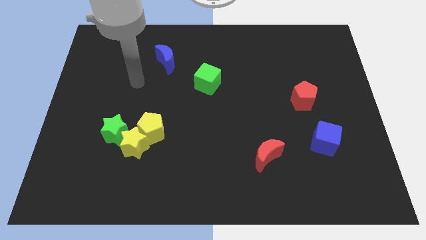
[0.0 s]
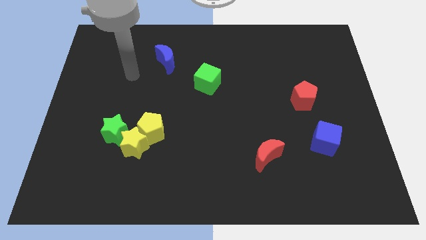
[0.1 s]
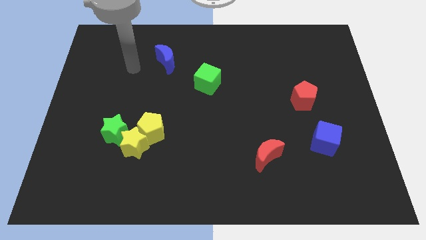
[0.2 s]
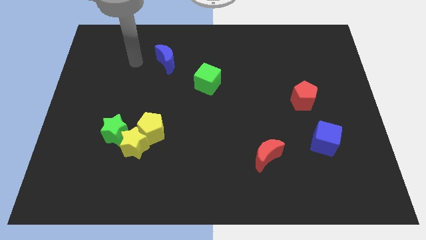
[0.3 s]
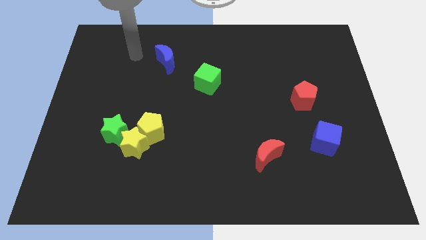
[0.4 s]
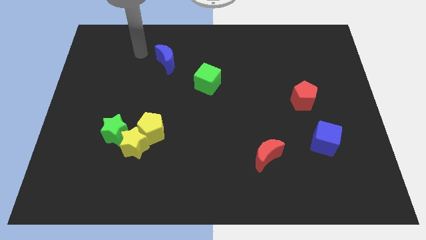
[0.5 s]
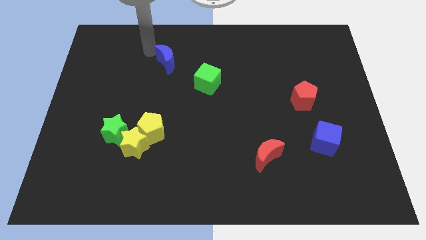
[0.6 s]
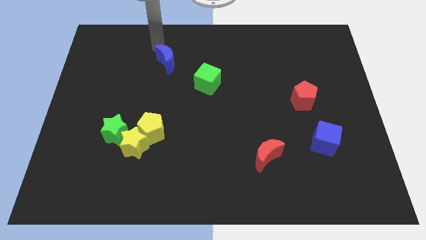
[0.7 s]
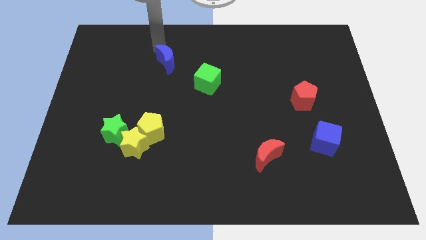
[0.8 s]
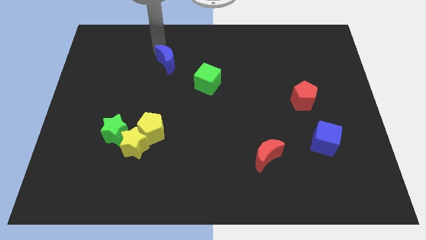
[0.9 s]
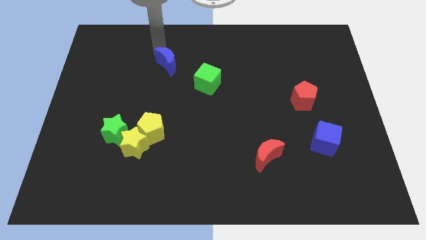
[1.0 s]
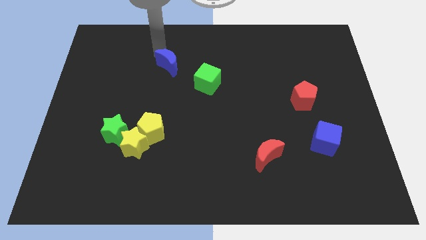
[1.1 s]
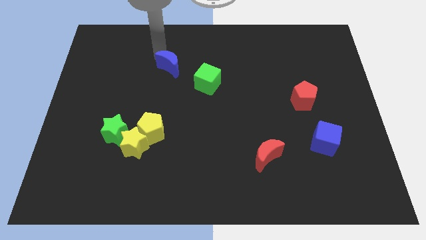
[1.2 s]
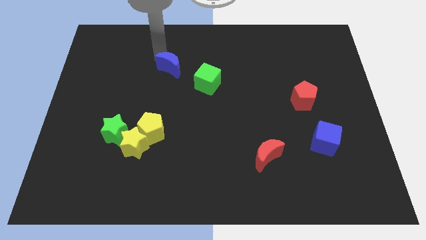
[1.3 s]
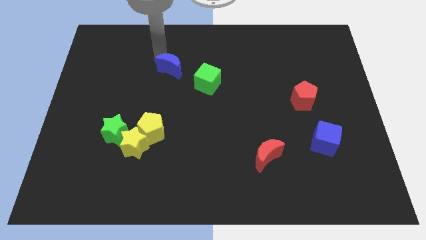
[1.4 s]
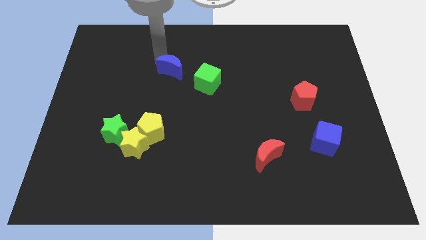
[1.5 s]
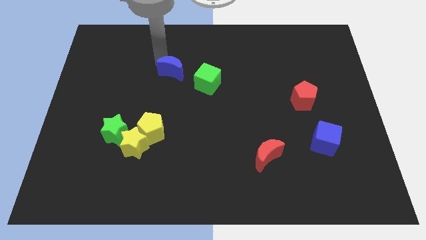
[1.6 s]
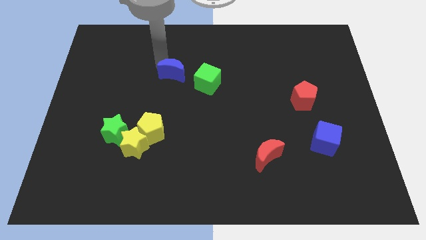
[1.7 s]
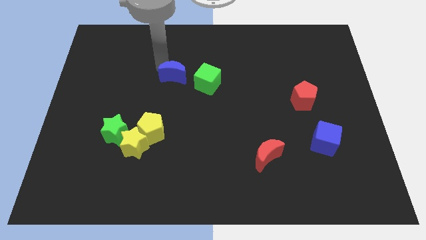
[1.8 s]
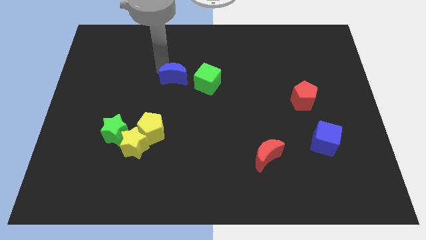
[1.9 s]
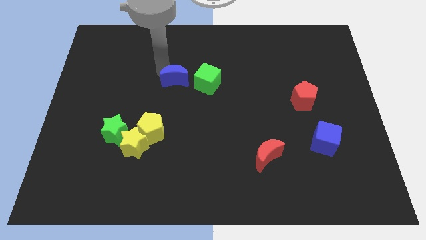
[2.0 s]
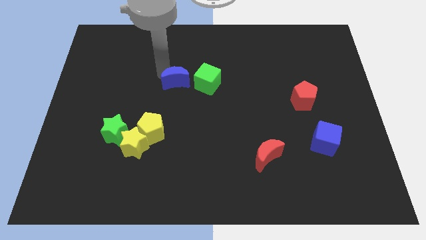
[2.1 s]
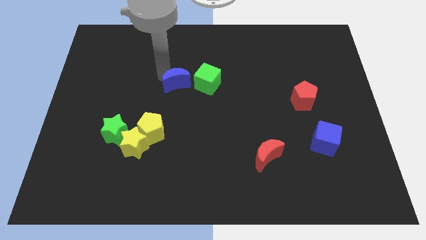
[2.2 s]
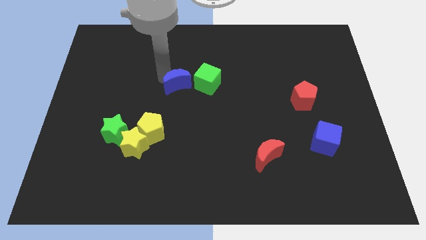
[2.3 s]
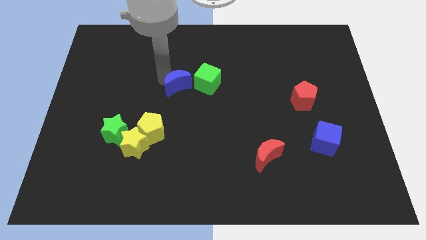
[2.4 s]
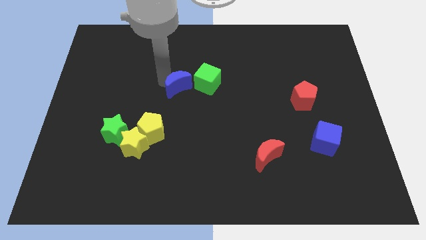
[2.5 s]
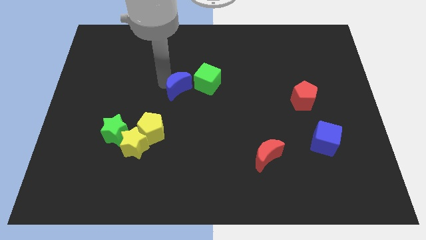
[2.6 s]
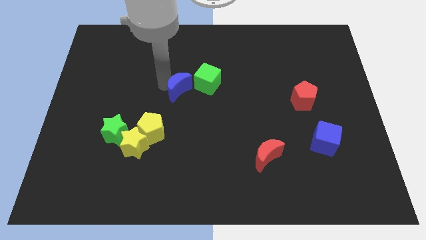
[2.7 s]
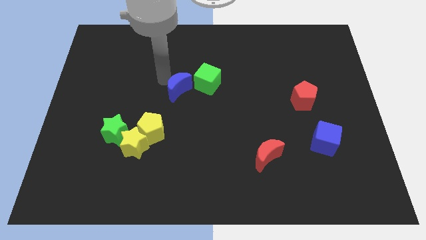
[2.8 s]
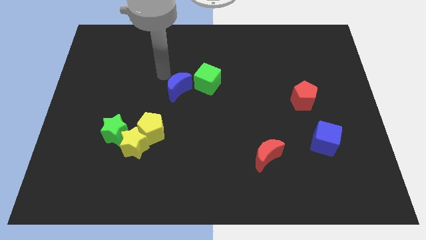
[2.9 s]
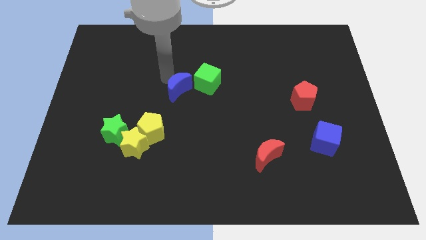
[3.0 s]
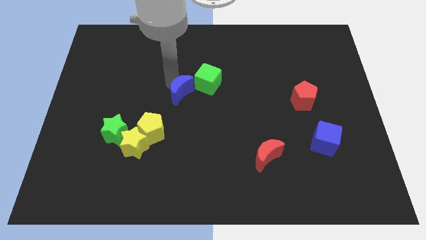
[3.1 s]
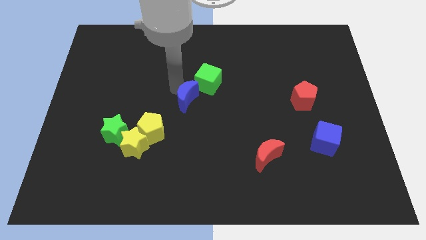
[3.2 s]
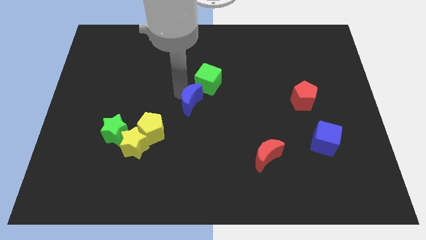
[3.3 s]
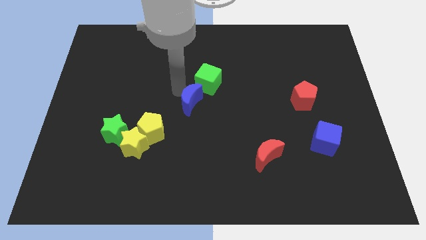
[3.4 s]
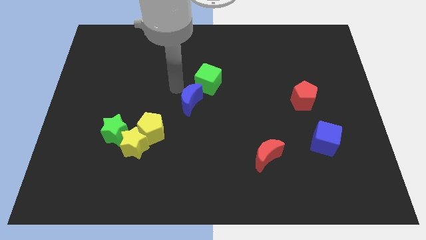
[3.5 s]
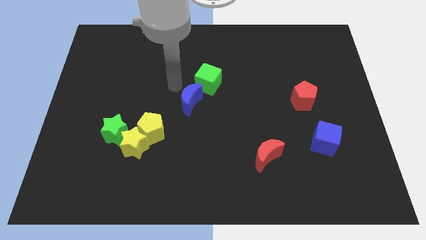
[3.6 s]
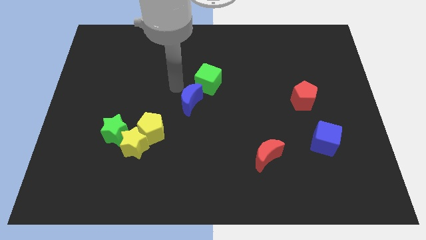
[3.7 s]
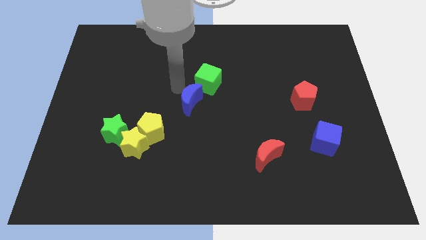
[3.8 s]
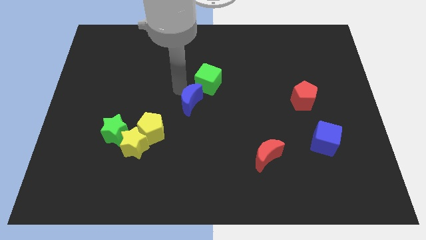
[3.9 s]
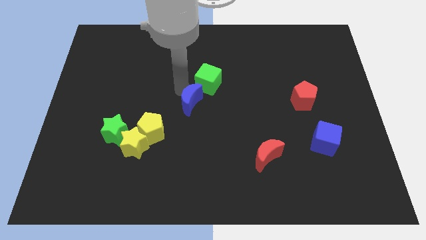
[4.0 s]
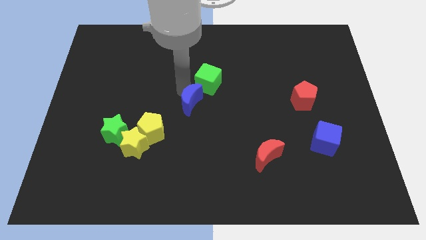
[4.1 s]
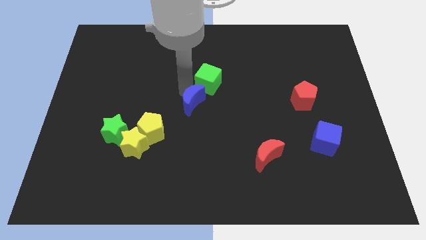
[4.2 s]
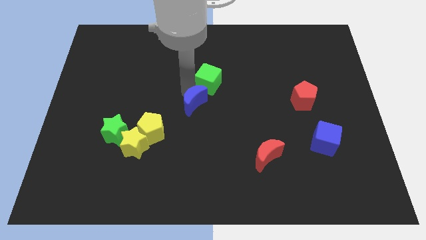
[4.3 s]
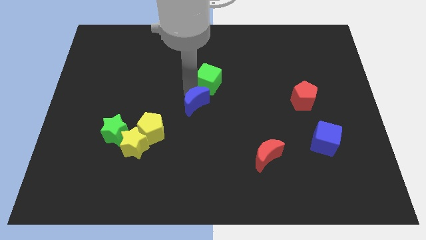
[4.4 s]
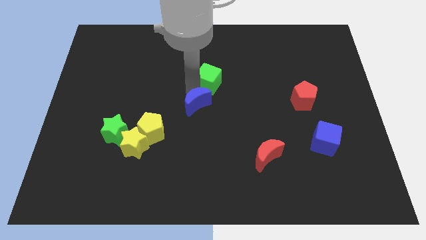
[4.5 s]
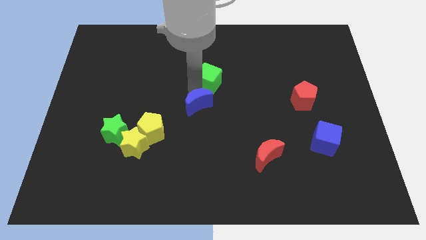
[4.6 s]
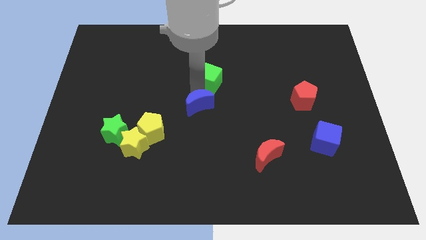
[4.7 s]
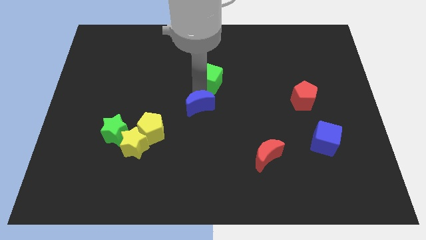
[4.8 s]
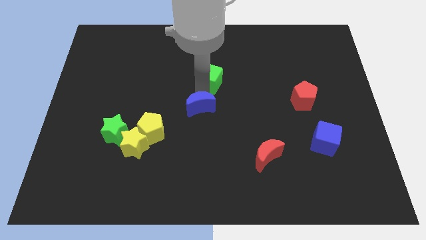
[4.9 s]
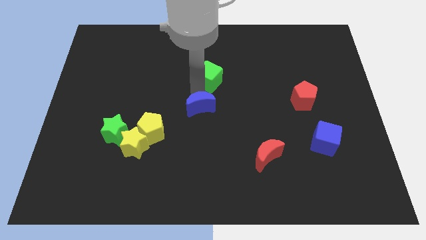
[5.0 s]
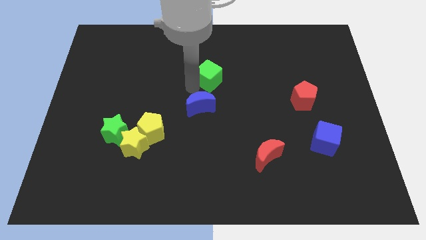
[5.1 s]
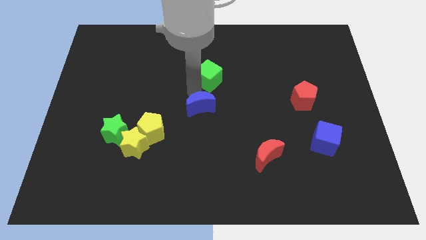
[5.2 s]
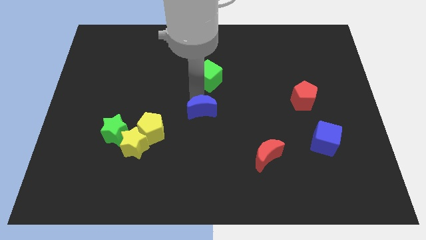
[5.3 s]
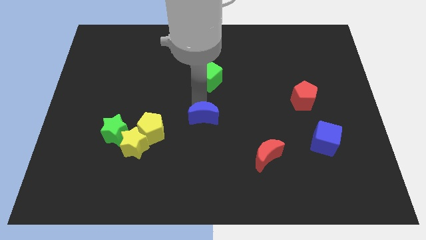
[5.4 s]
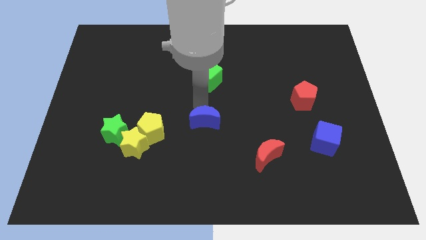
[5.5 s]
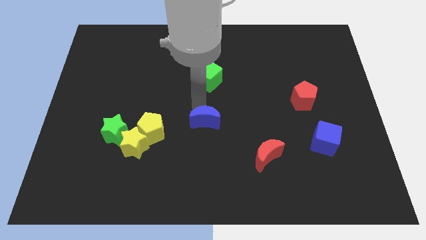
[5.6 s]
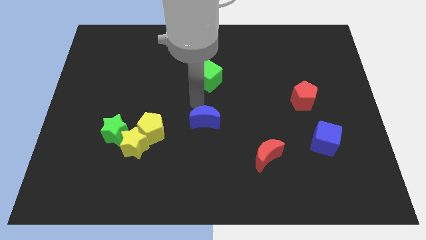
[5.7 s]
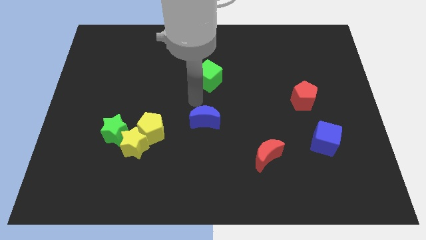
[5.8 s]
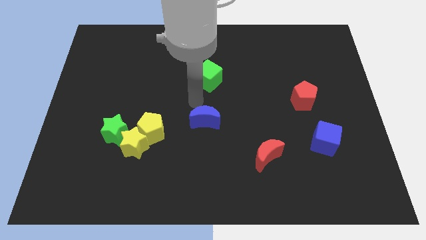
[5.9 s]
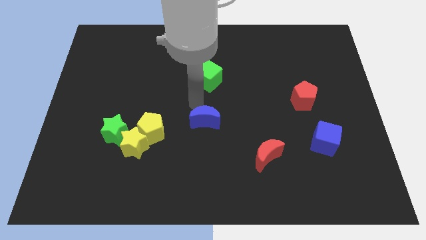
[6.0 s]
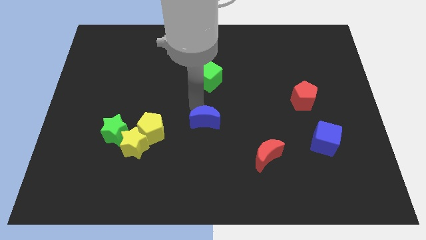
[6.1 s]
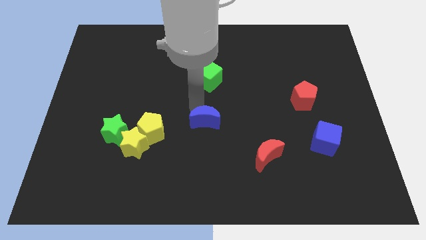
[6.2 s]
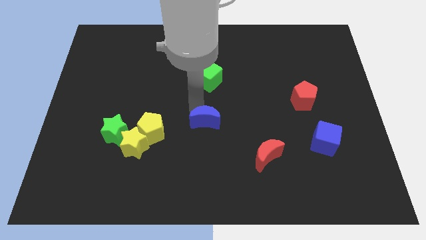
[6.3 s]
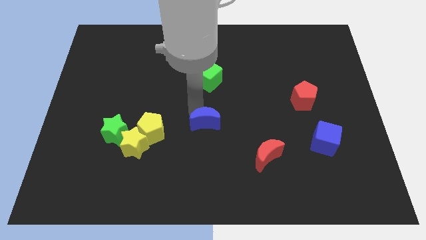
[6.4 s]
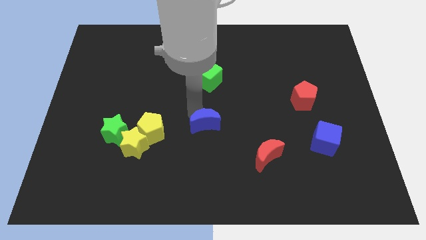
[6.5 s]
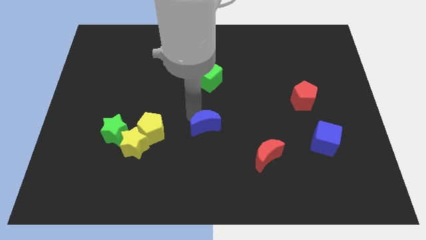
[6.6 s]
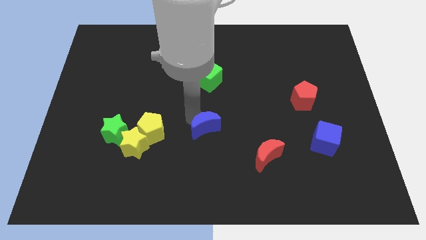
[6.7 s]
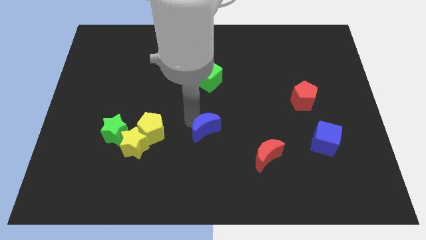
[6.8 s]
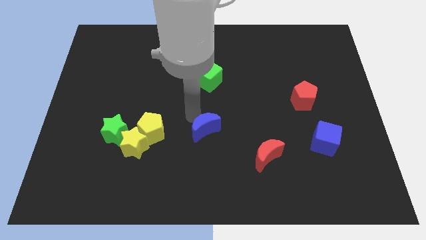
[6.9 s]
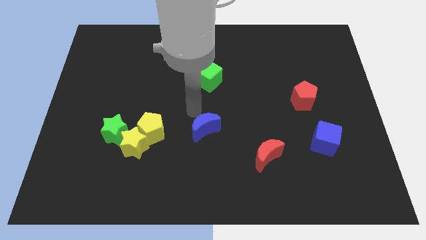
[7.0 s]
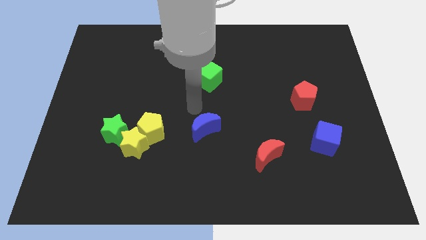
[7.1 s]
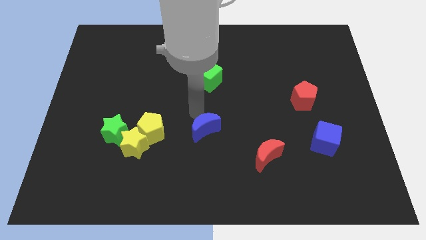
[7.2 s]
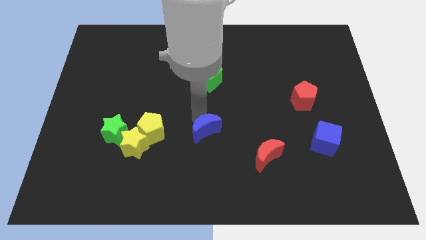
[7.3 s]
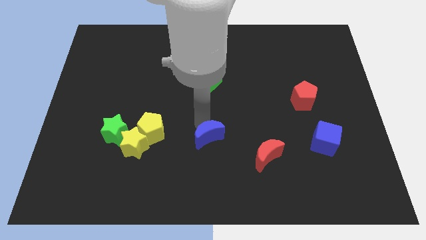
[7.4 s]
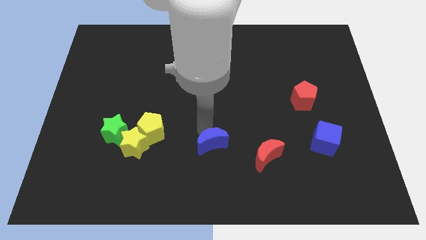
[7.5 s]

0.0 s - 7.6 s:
slide the blue moon left of the red moon
